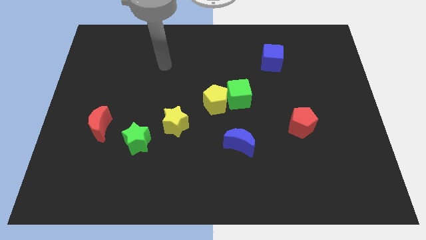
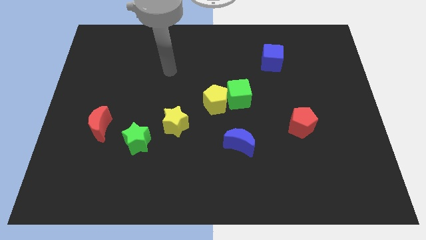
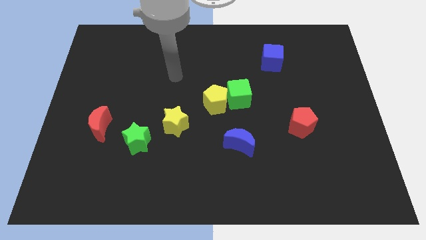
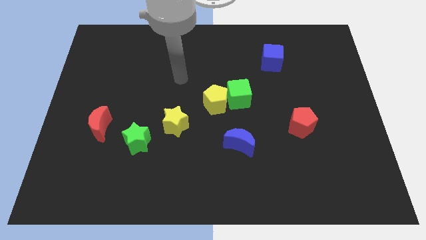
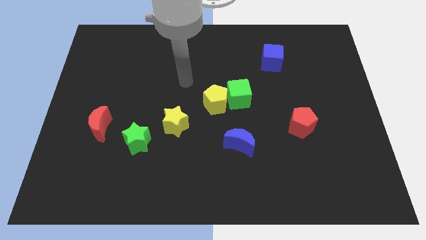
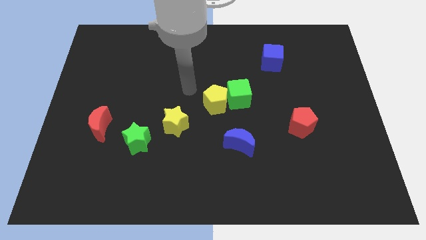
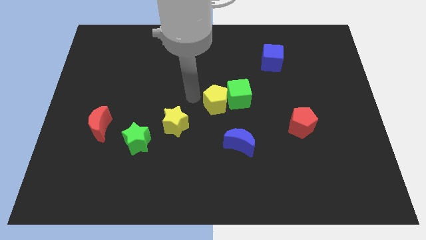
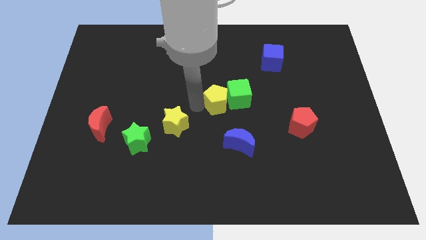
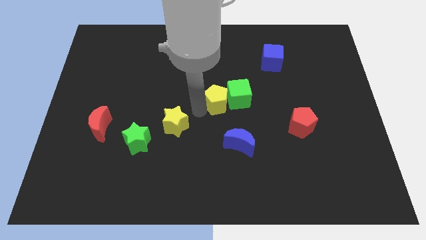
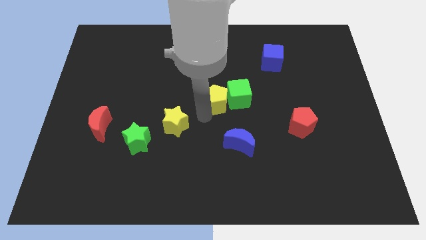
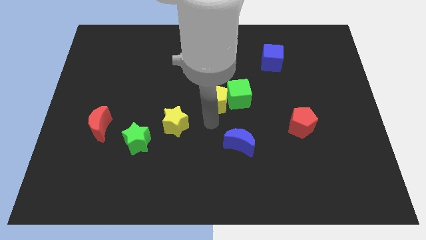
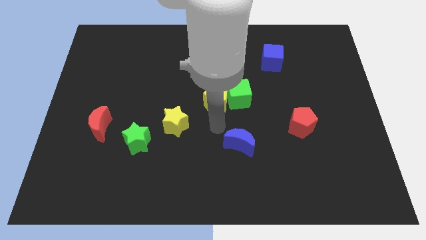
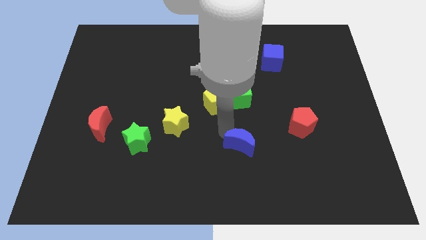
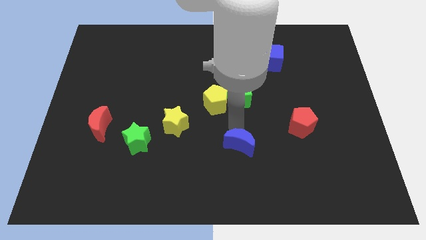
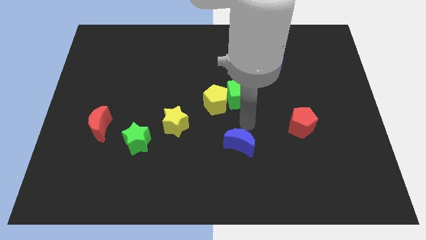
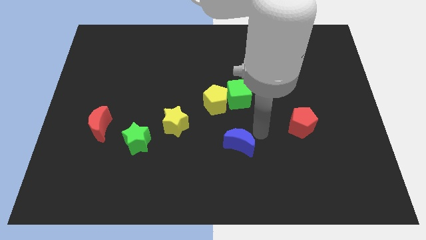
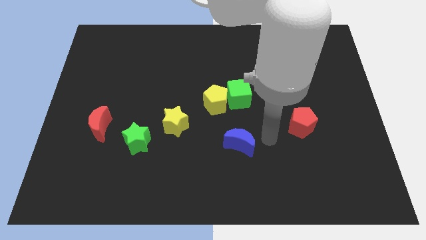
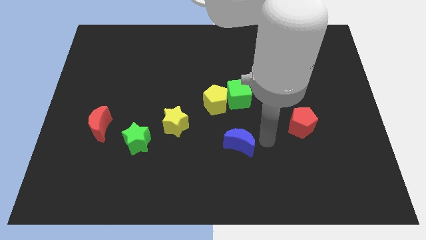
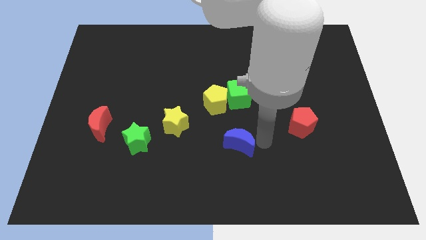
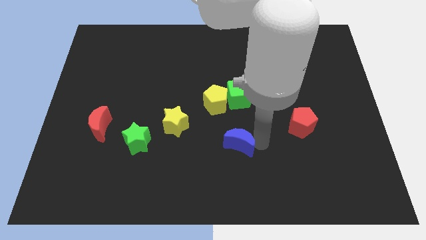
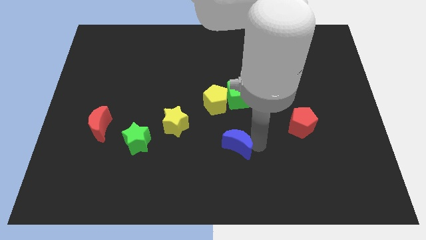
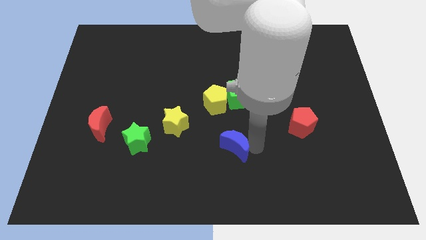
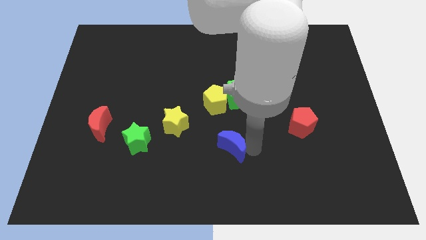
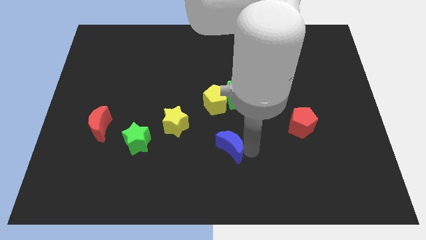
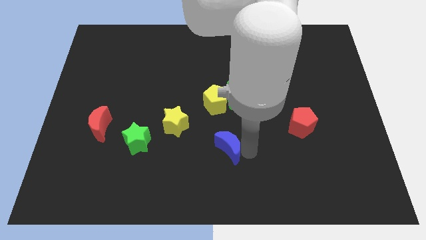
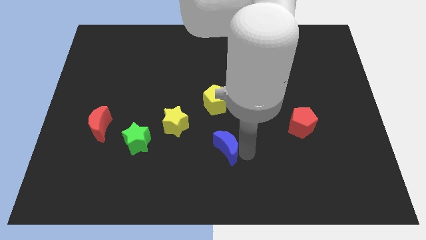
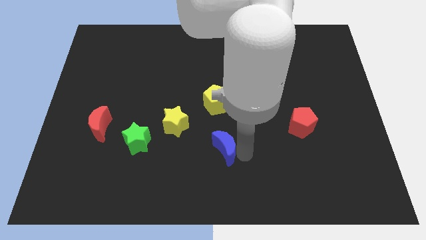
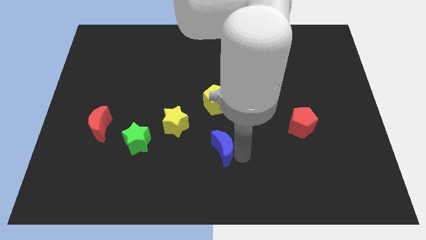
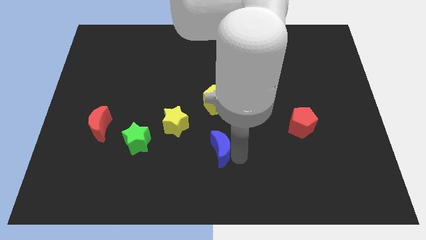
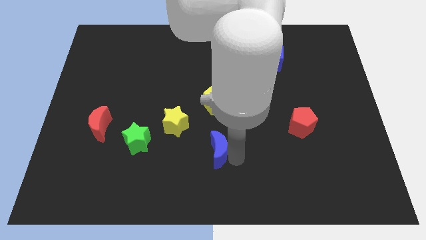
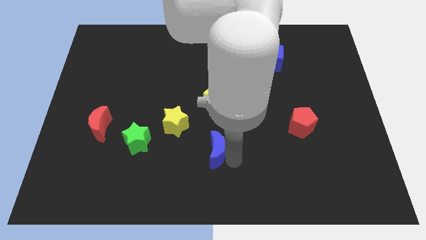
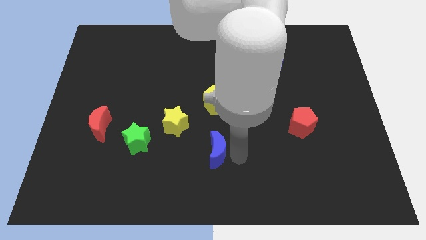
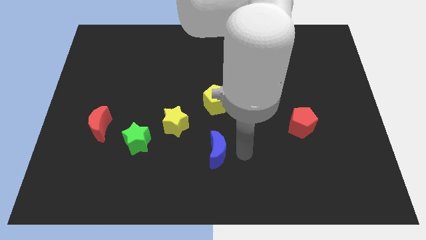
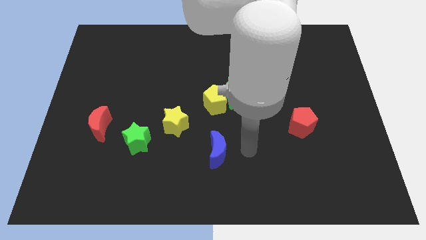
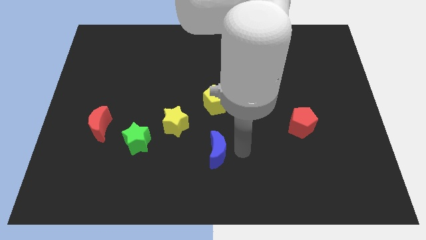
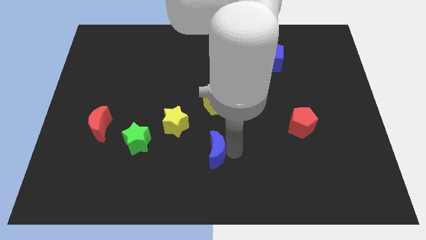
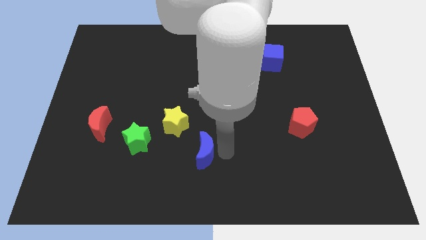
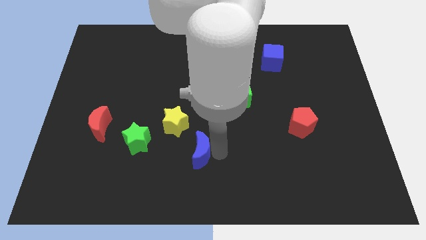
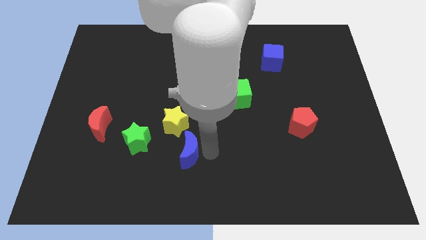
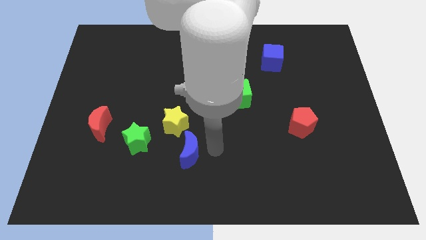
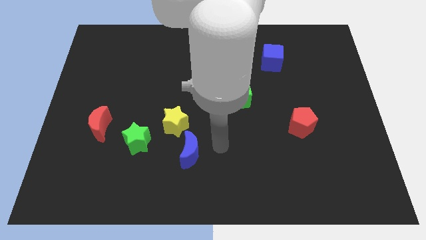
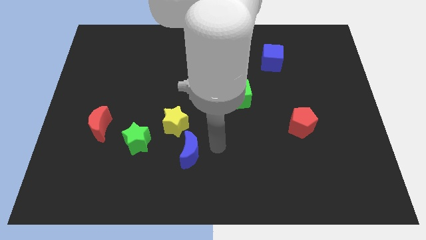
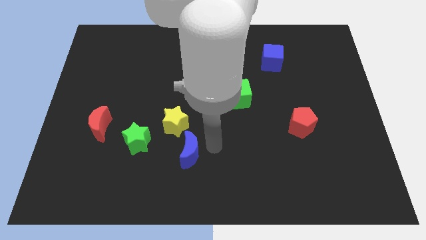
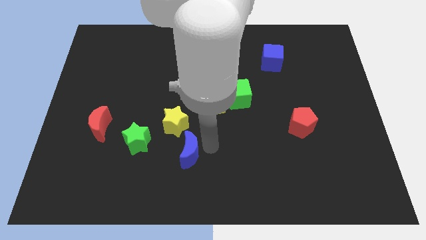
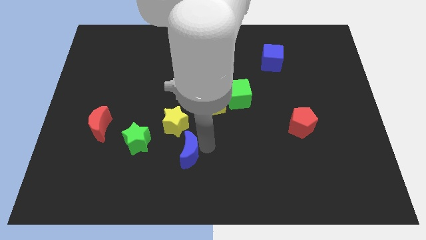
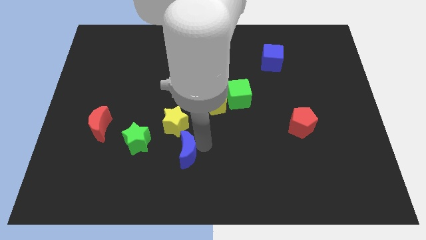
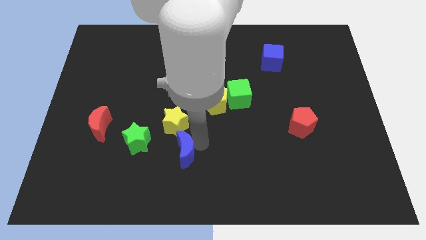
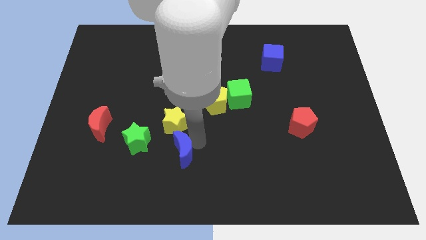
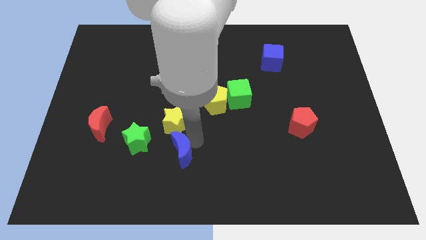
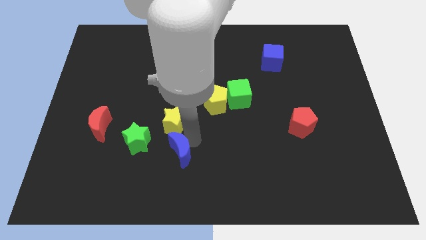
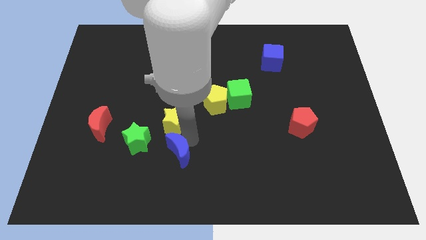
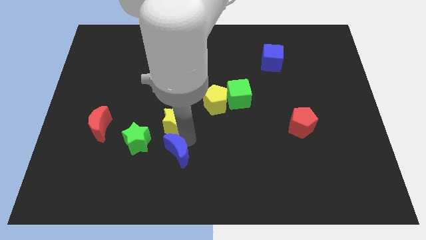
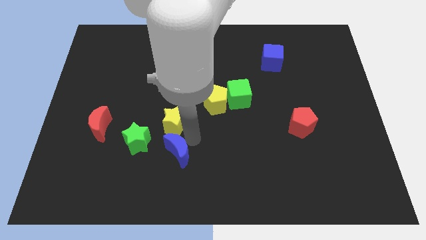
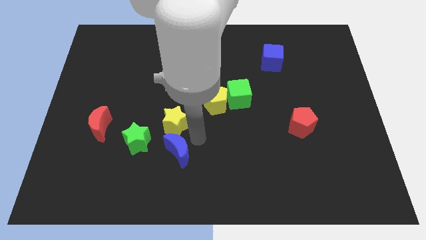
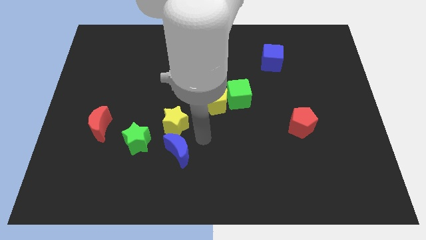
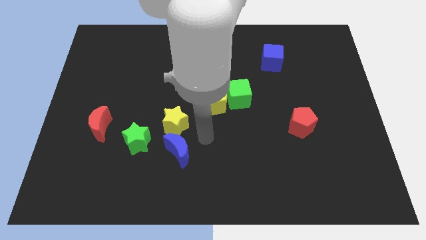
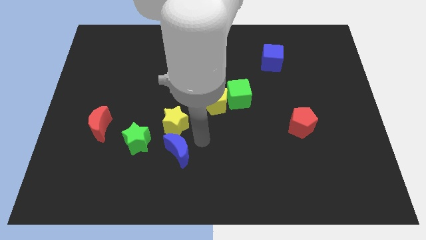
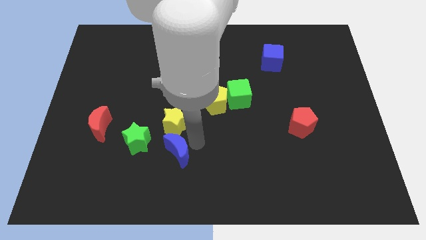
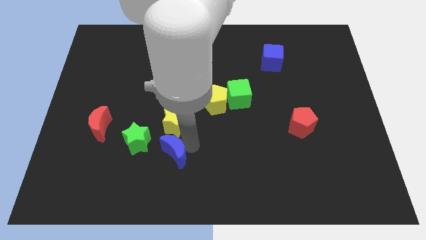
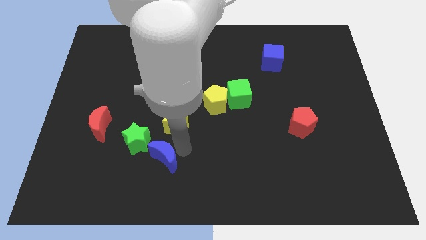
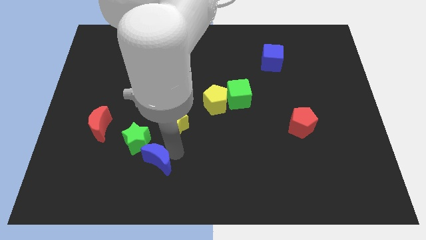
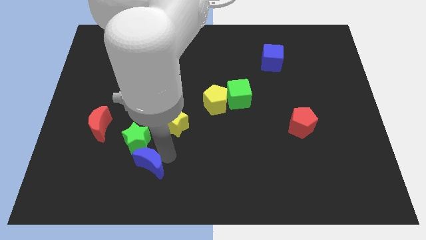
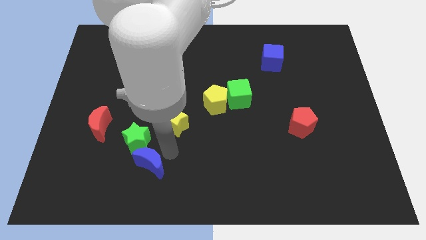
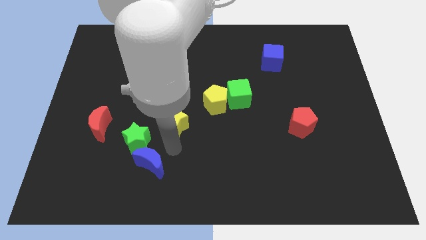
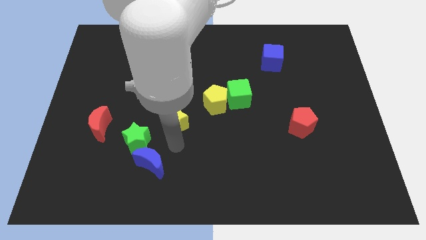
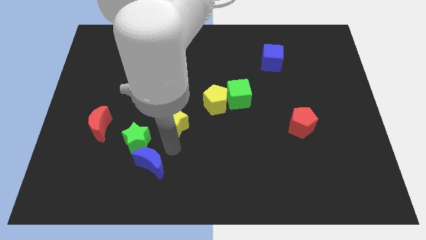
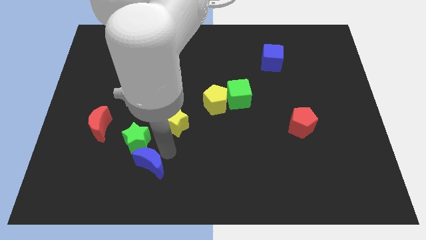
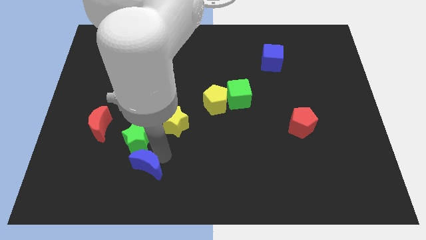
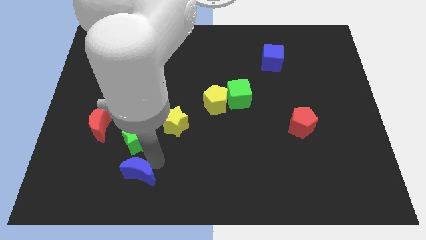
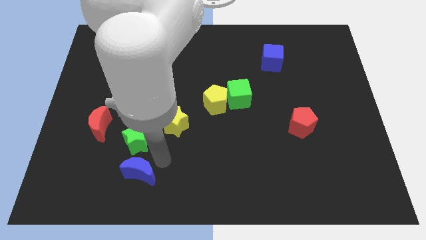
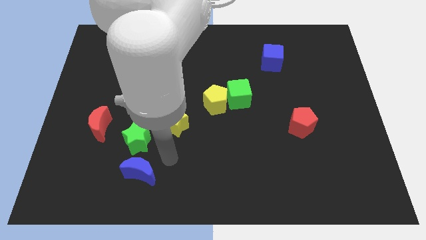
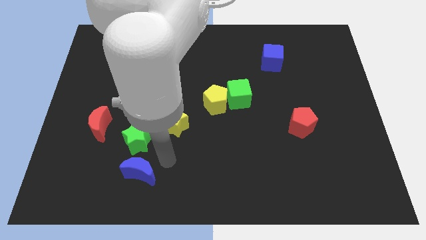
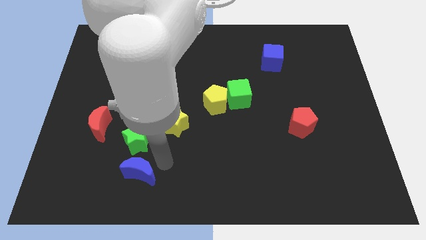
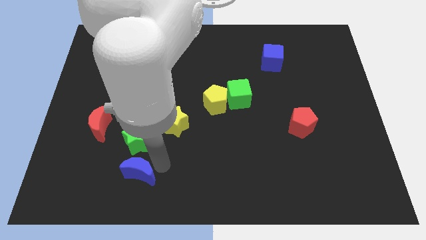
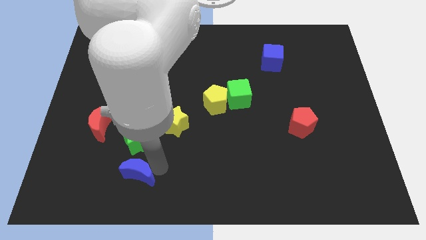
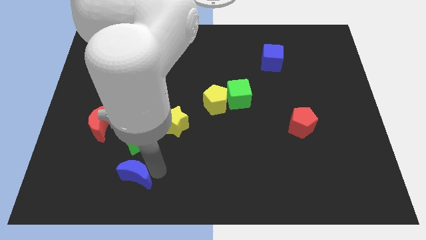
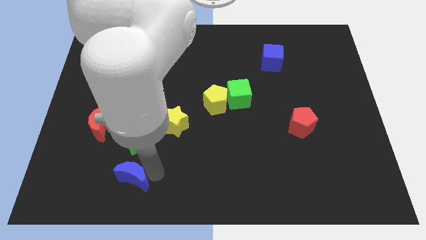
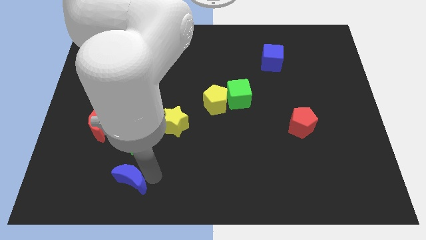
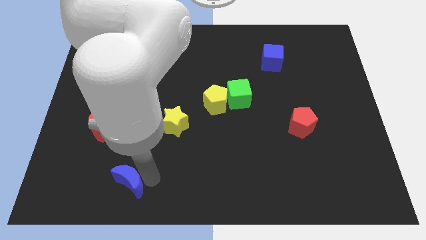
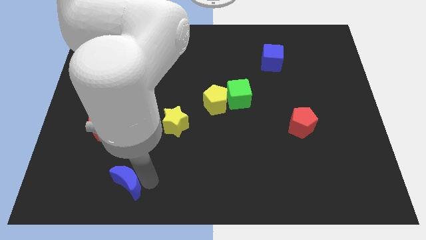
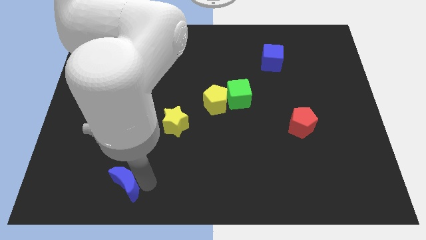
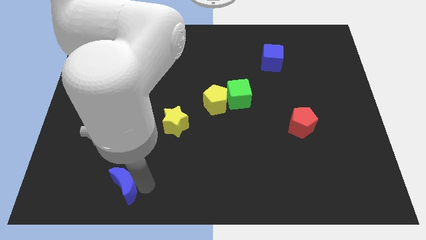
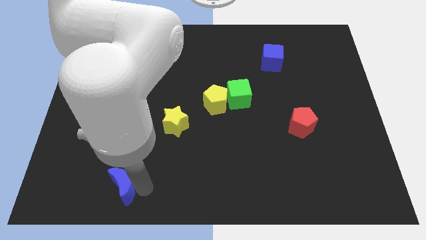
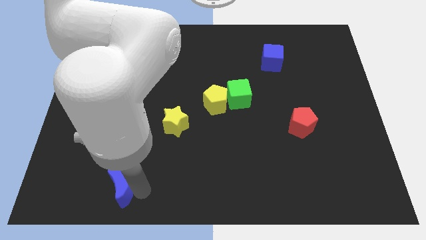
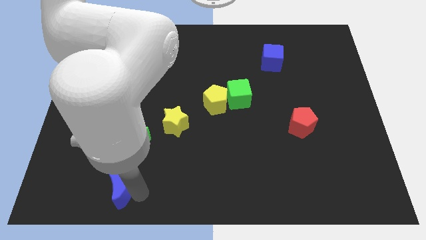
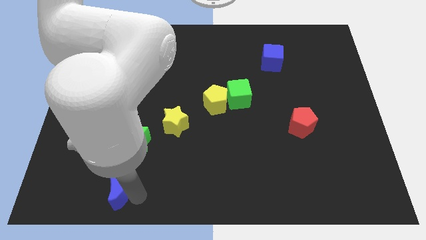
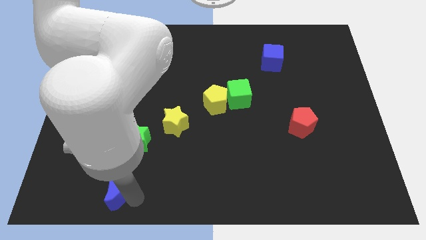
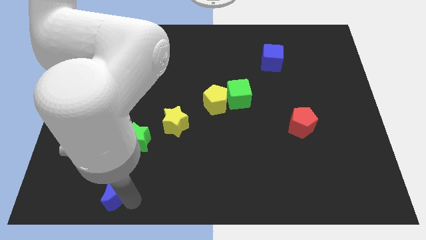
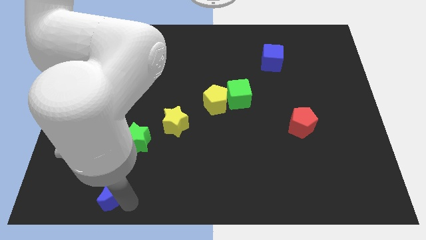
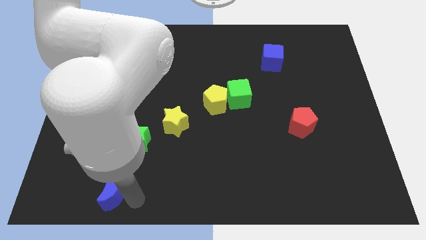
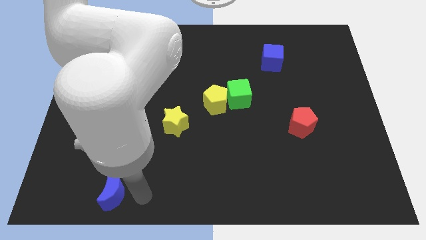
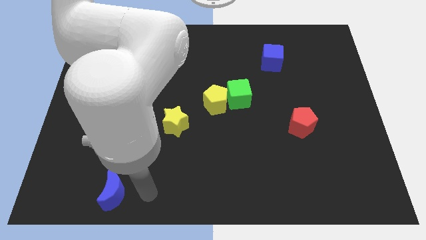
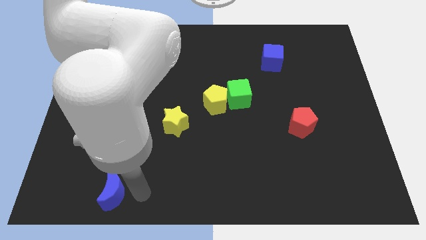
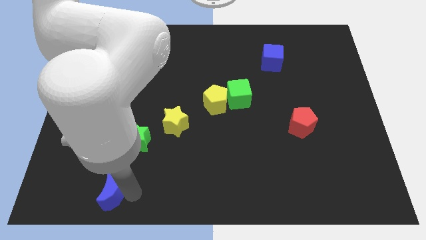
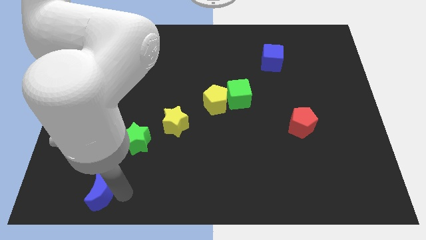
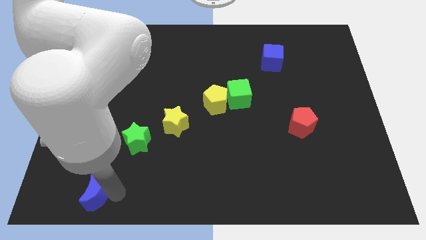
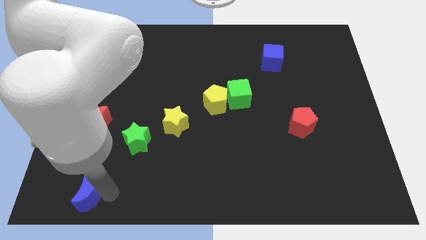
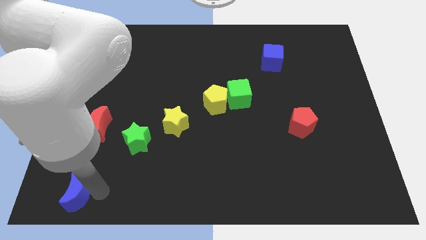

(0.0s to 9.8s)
put the blue moon to the bottom left of the board
